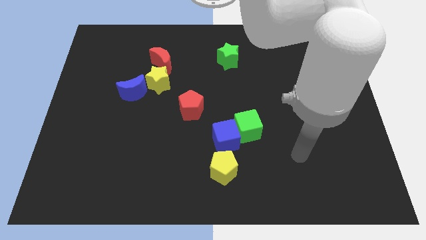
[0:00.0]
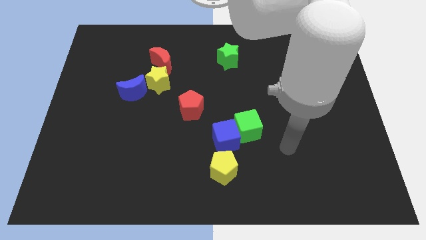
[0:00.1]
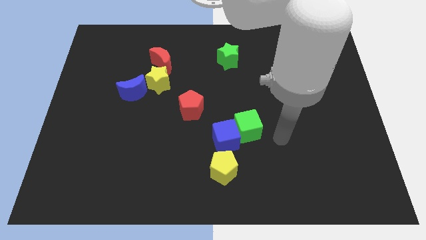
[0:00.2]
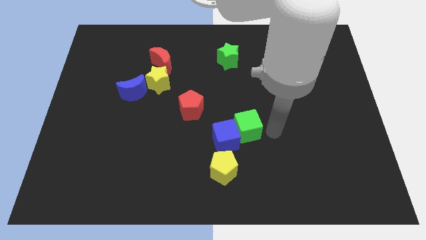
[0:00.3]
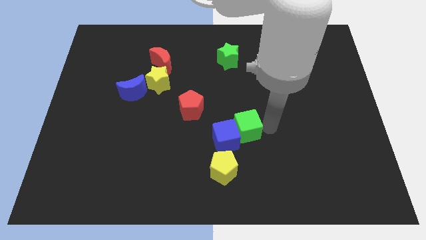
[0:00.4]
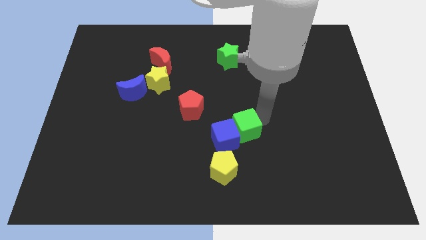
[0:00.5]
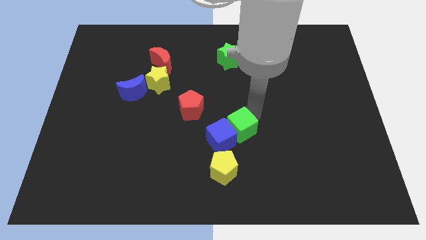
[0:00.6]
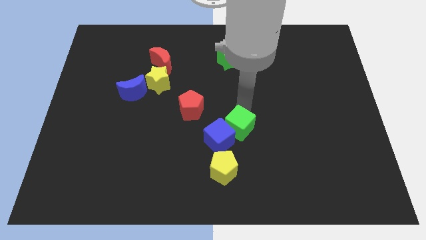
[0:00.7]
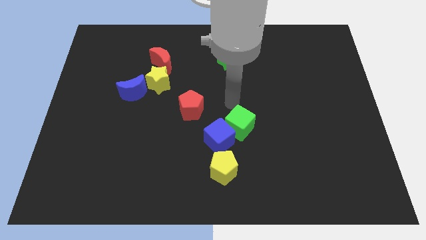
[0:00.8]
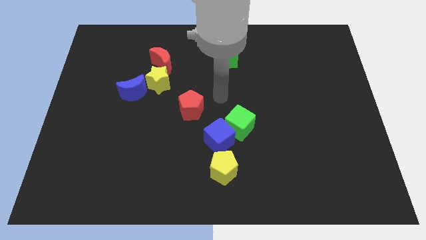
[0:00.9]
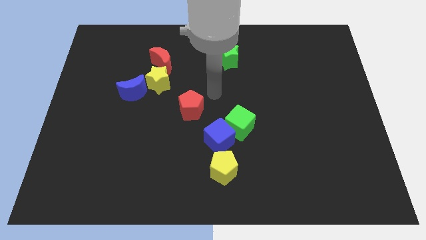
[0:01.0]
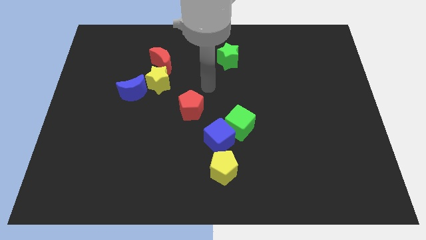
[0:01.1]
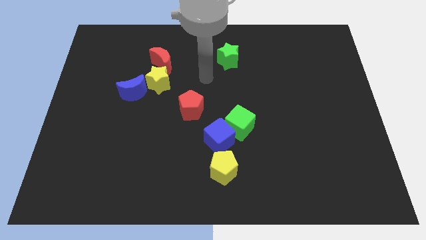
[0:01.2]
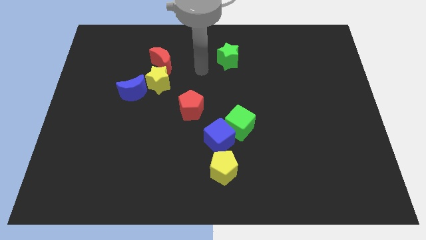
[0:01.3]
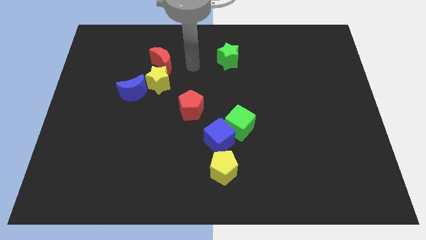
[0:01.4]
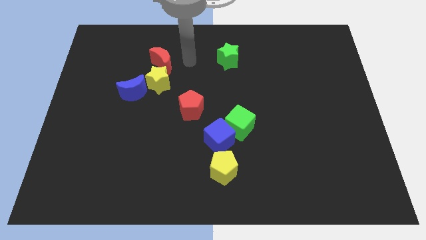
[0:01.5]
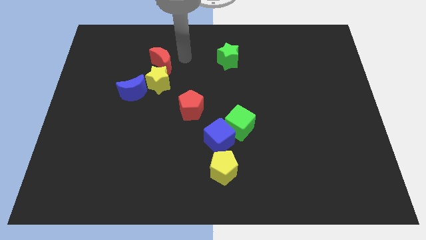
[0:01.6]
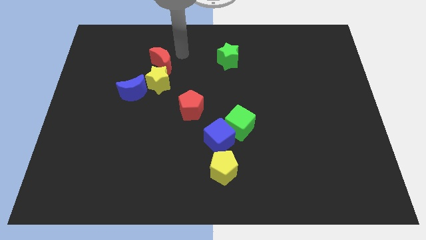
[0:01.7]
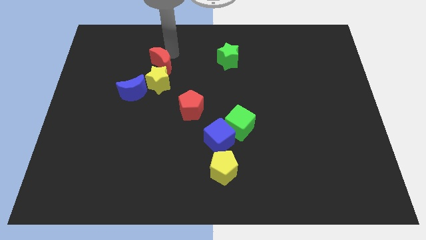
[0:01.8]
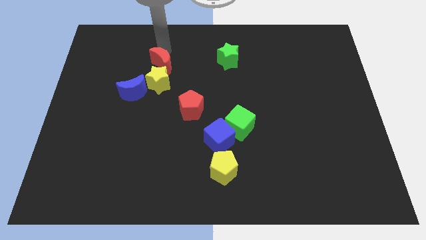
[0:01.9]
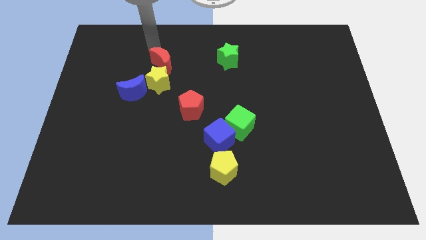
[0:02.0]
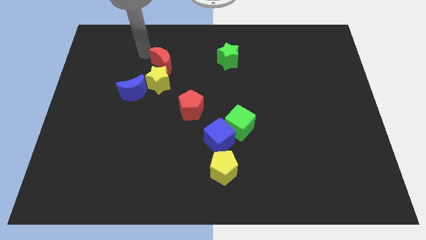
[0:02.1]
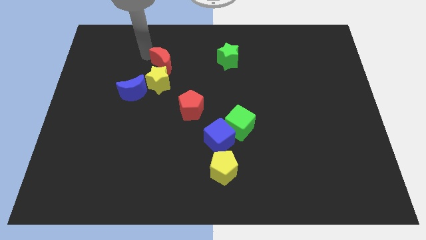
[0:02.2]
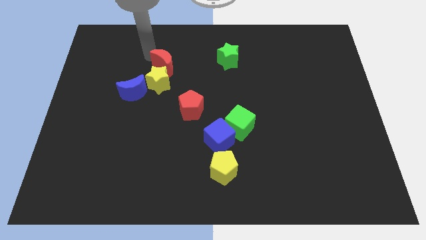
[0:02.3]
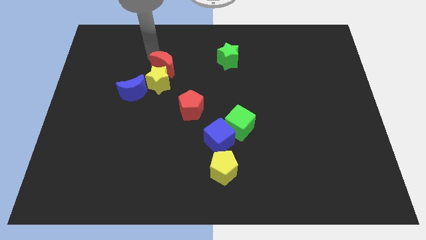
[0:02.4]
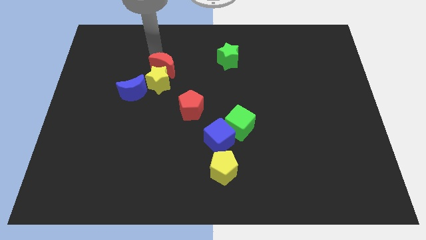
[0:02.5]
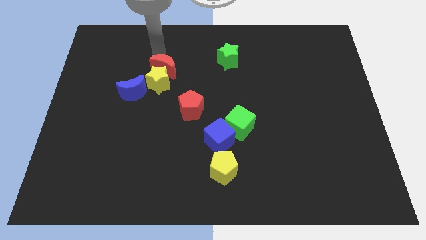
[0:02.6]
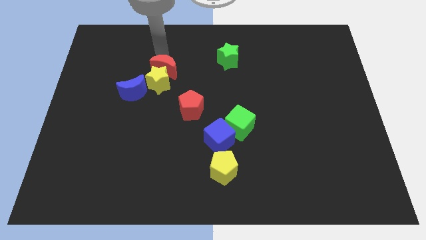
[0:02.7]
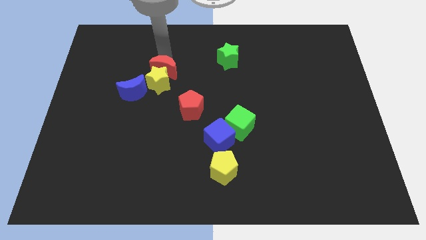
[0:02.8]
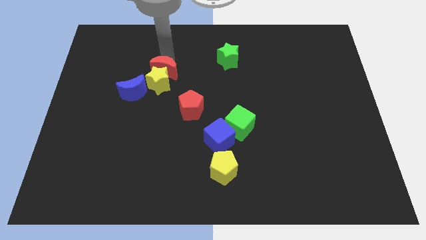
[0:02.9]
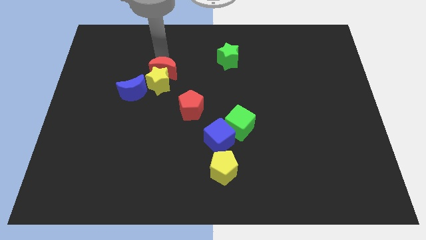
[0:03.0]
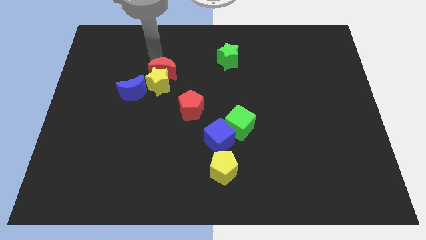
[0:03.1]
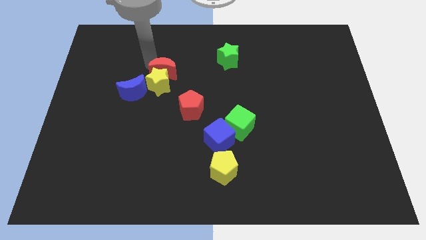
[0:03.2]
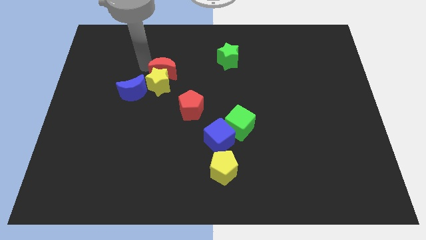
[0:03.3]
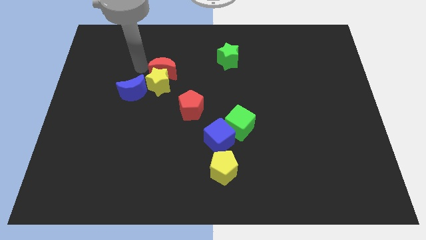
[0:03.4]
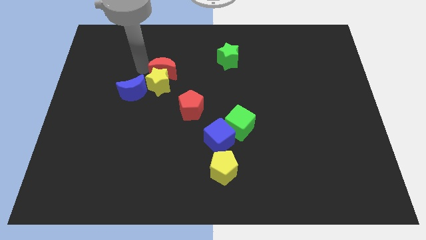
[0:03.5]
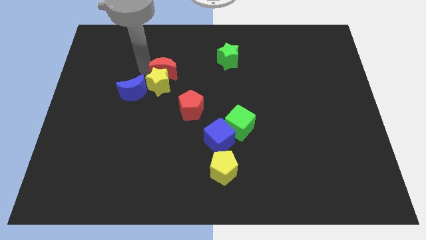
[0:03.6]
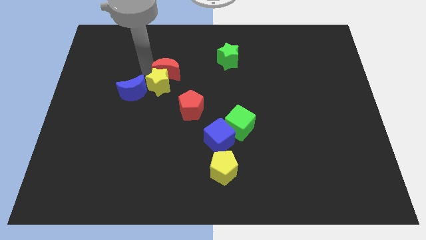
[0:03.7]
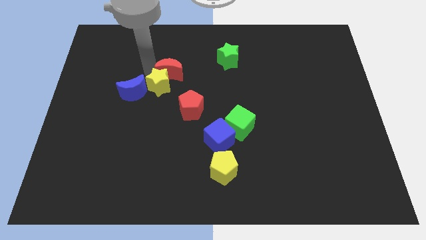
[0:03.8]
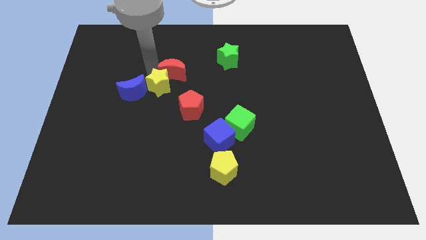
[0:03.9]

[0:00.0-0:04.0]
push the red moon above the red pentagon

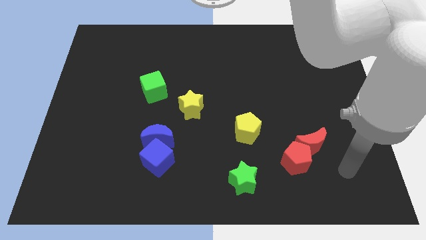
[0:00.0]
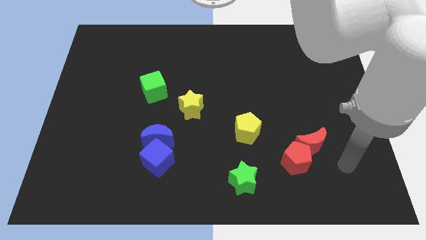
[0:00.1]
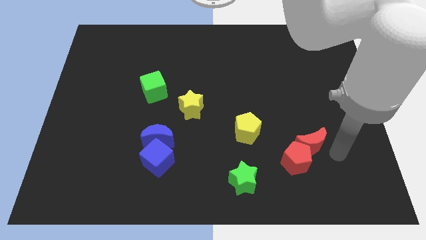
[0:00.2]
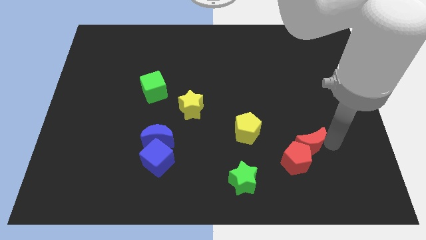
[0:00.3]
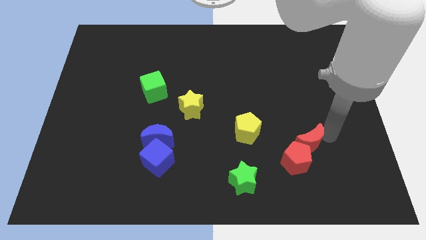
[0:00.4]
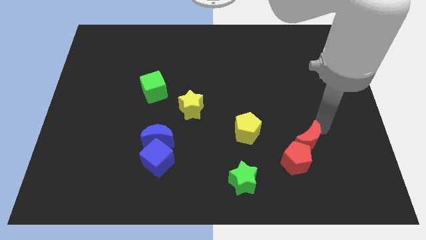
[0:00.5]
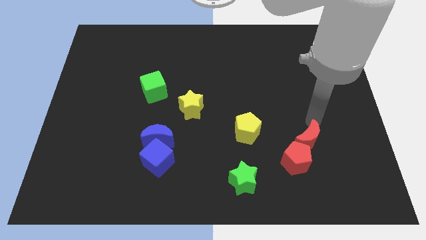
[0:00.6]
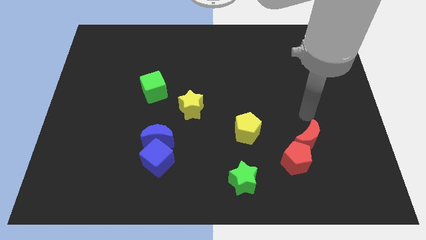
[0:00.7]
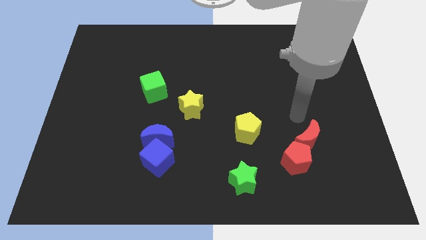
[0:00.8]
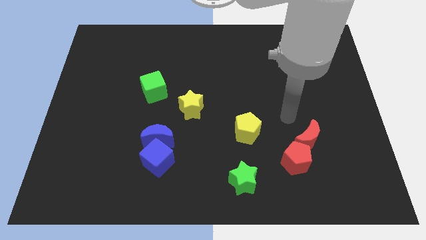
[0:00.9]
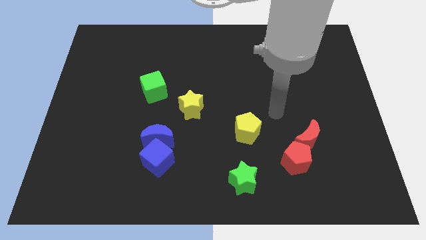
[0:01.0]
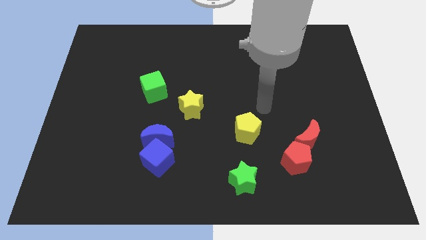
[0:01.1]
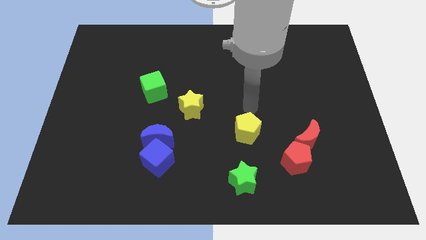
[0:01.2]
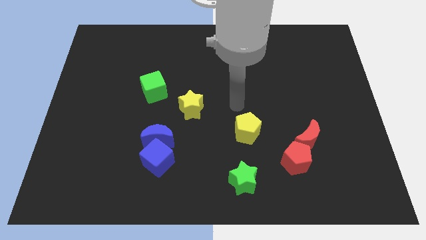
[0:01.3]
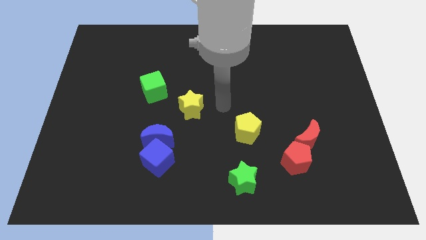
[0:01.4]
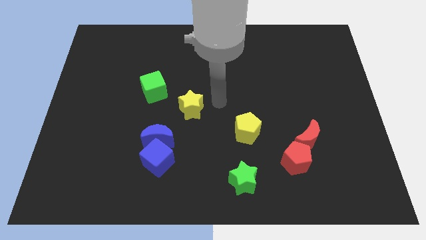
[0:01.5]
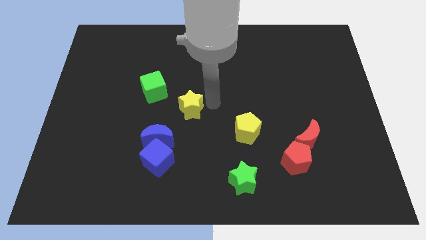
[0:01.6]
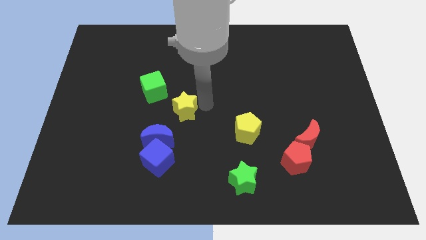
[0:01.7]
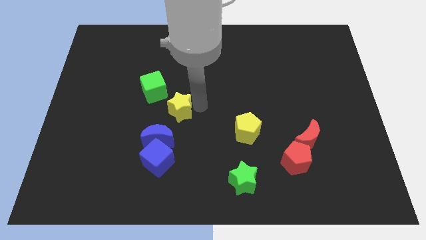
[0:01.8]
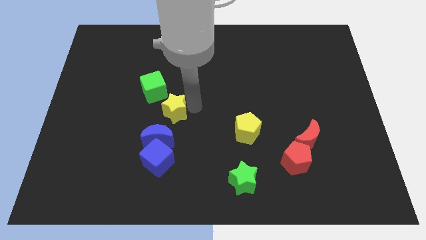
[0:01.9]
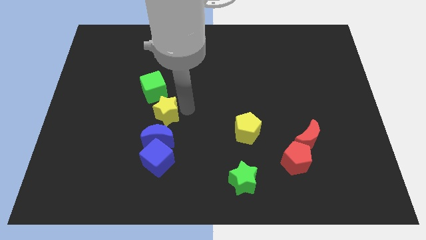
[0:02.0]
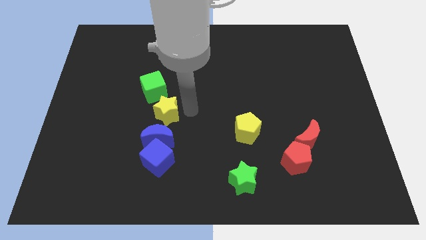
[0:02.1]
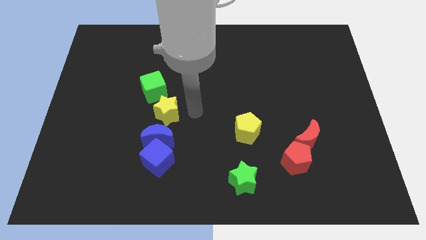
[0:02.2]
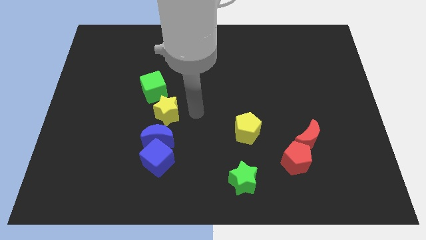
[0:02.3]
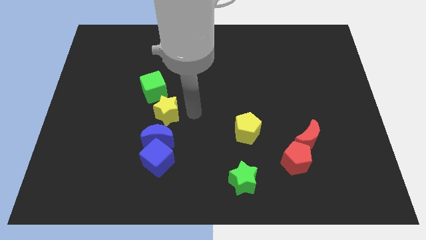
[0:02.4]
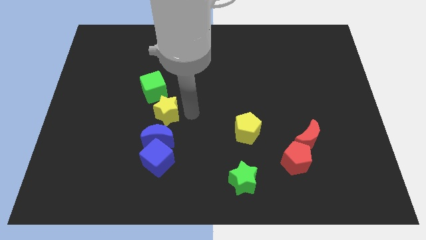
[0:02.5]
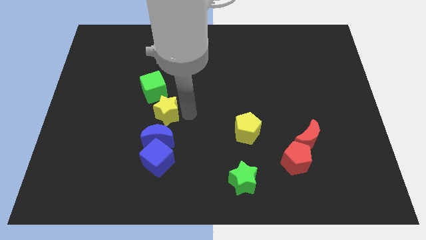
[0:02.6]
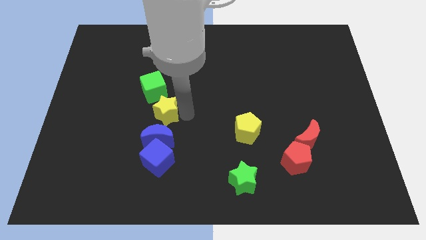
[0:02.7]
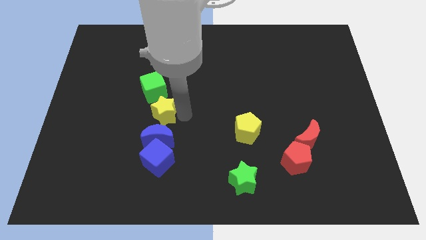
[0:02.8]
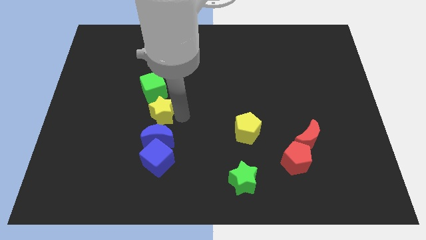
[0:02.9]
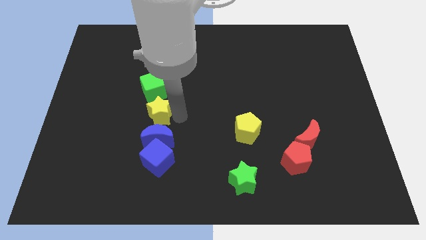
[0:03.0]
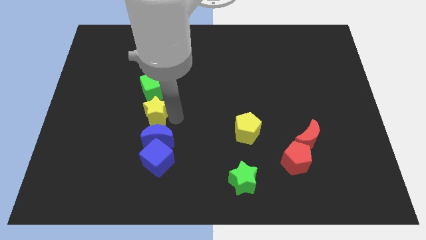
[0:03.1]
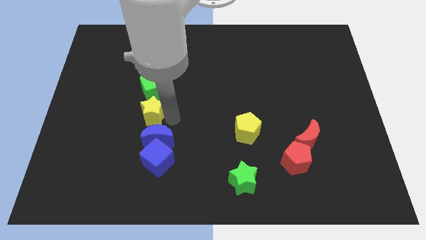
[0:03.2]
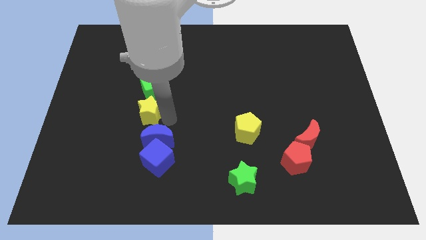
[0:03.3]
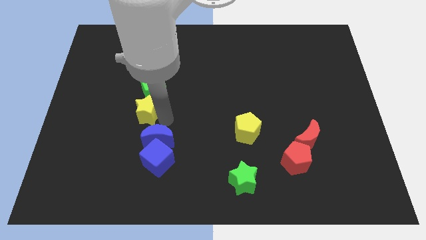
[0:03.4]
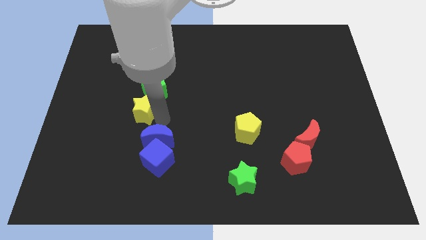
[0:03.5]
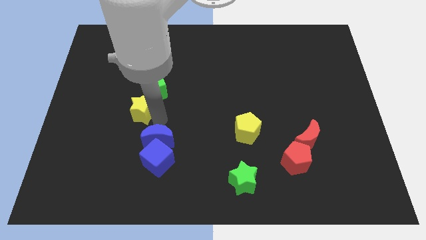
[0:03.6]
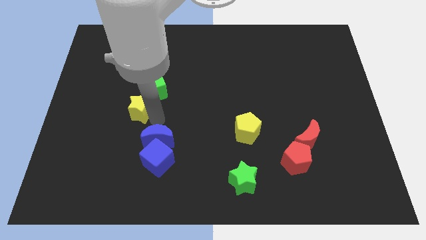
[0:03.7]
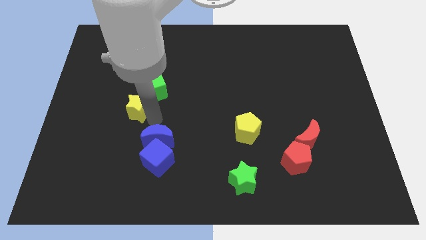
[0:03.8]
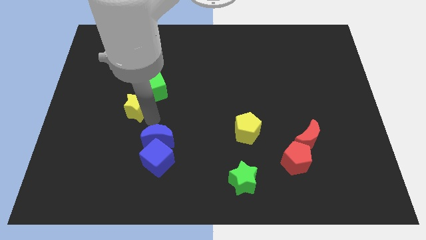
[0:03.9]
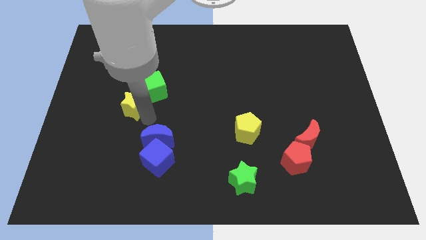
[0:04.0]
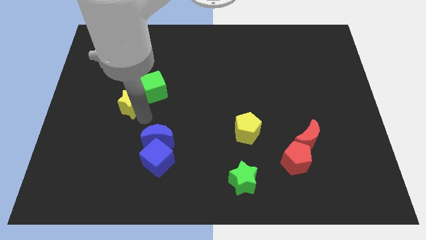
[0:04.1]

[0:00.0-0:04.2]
push the yellow star to the left of the green cube
